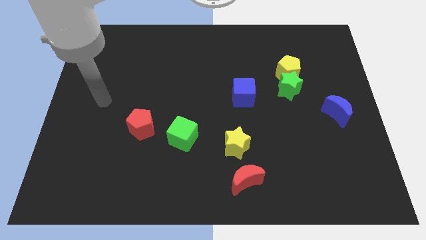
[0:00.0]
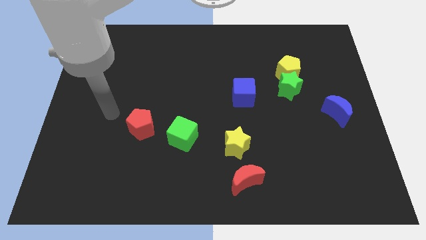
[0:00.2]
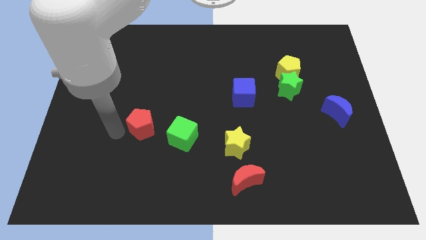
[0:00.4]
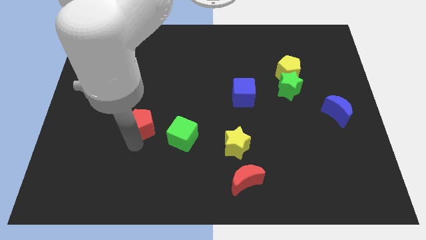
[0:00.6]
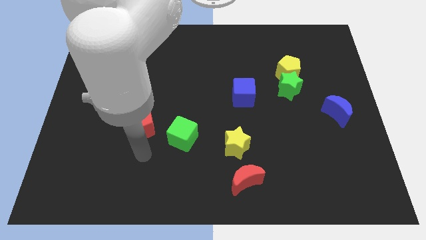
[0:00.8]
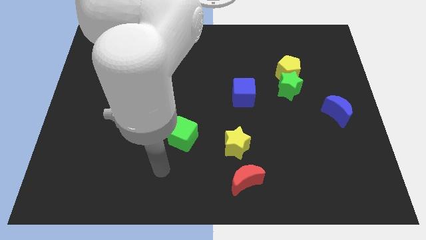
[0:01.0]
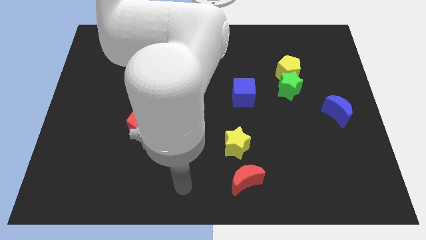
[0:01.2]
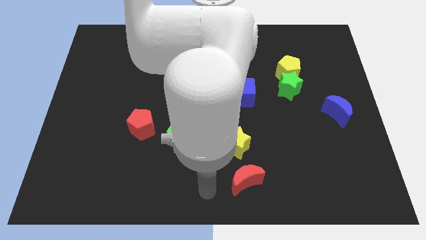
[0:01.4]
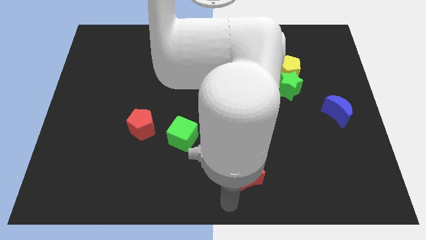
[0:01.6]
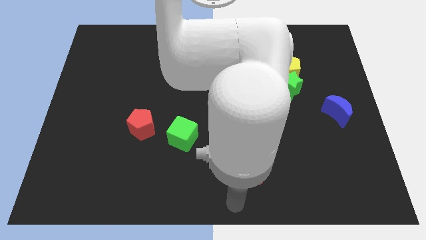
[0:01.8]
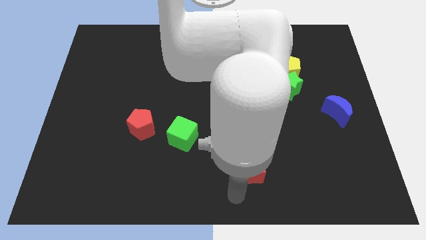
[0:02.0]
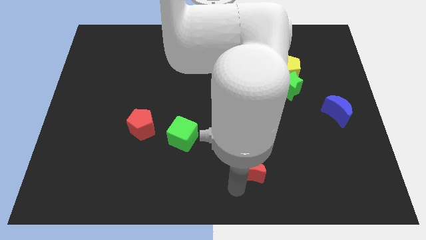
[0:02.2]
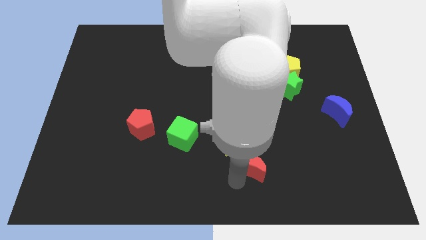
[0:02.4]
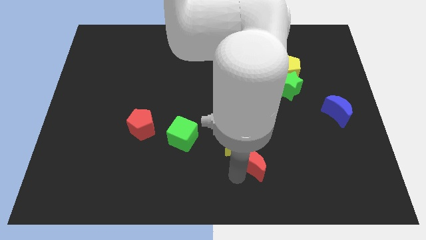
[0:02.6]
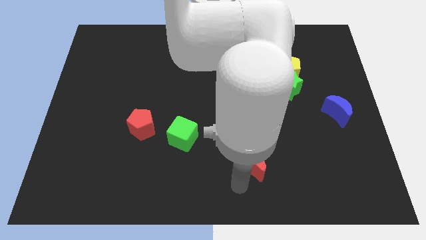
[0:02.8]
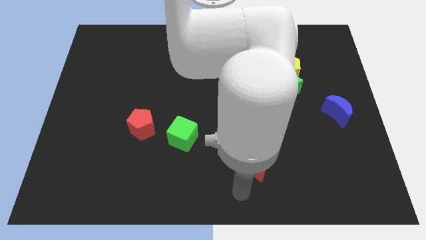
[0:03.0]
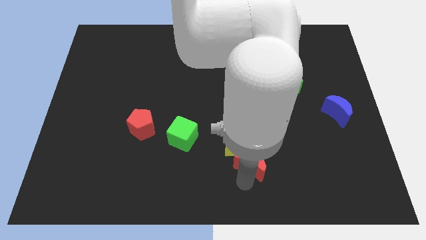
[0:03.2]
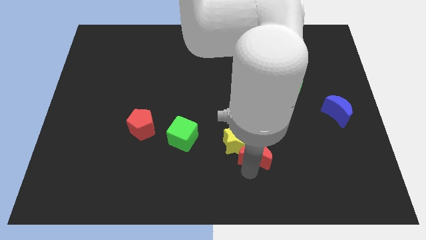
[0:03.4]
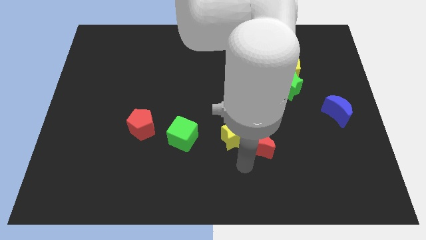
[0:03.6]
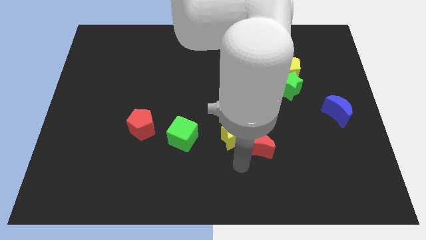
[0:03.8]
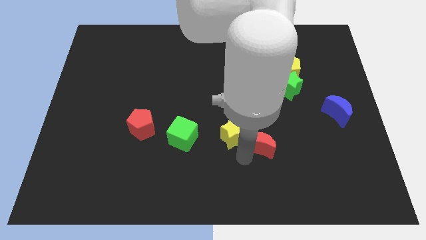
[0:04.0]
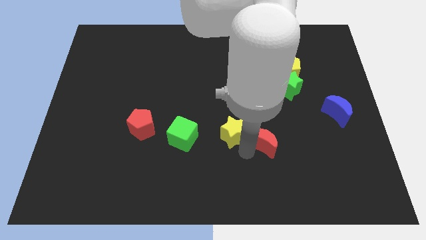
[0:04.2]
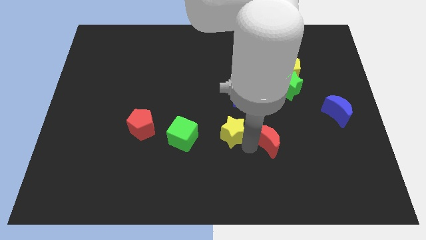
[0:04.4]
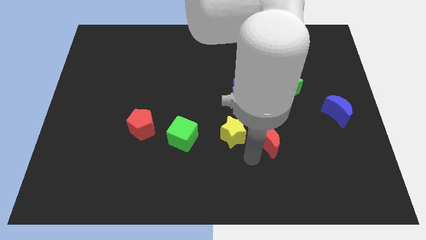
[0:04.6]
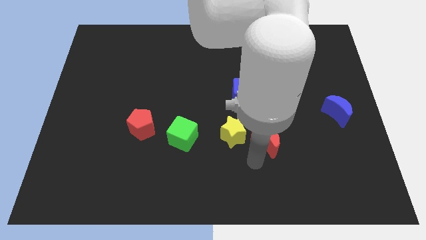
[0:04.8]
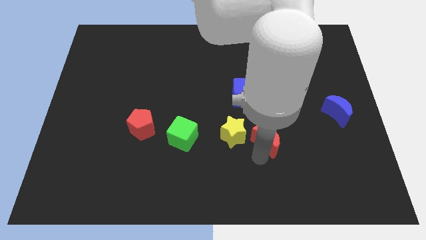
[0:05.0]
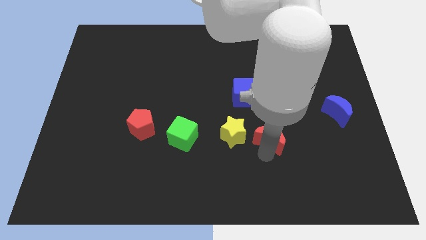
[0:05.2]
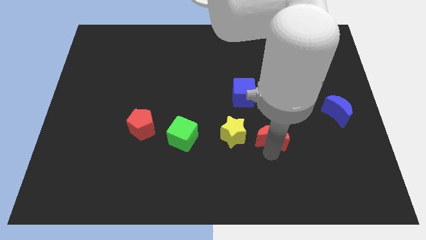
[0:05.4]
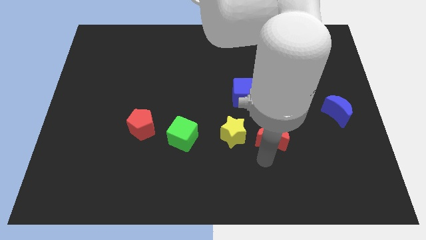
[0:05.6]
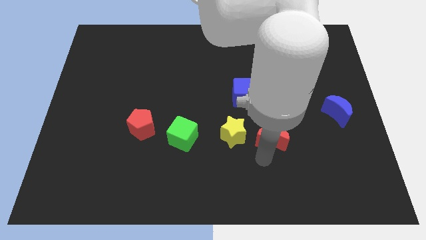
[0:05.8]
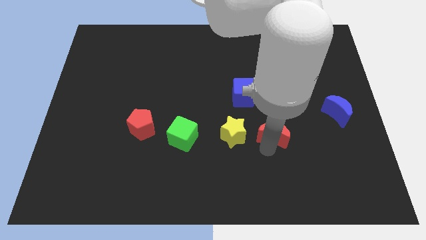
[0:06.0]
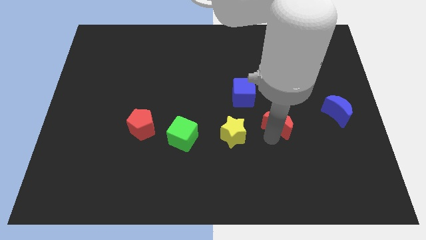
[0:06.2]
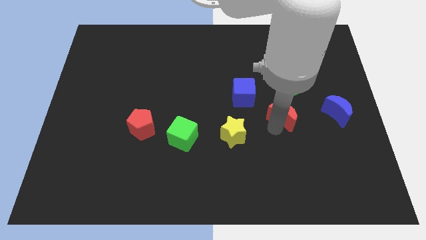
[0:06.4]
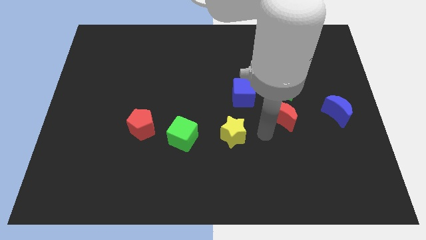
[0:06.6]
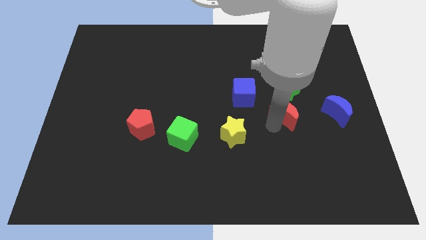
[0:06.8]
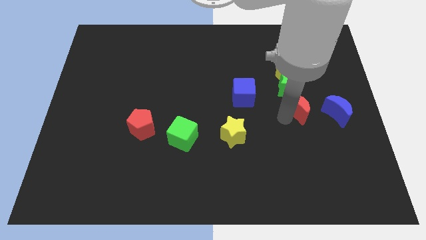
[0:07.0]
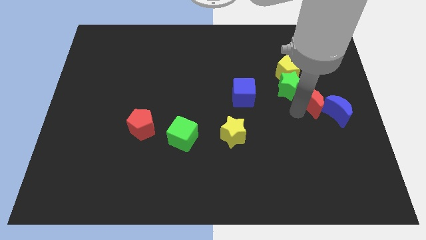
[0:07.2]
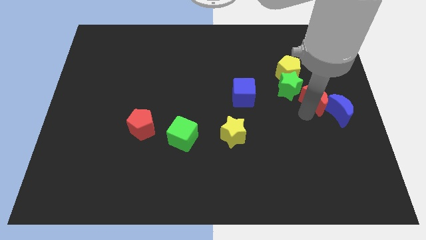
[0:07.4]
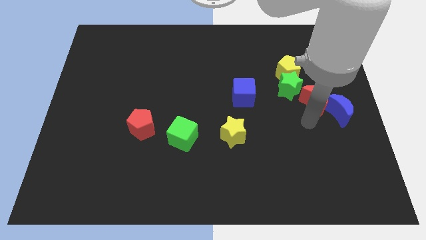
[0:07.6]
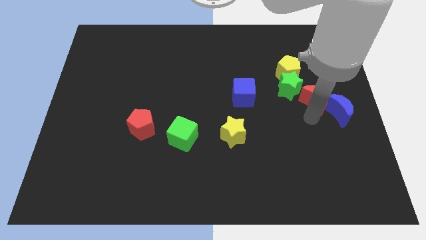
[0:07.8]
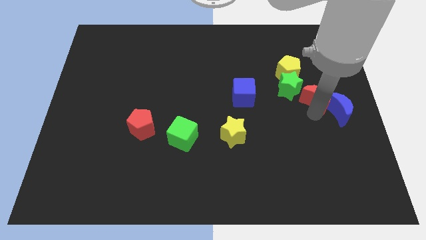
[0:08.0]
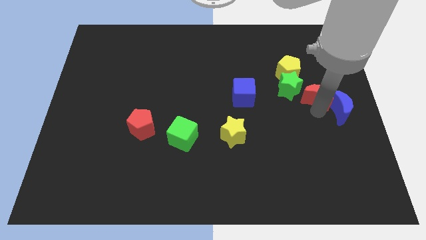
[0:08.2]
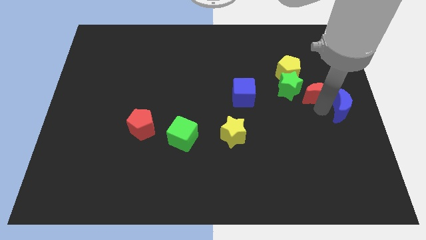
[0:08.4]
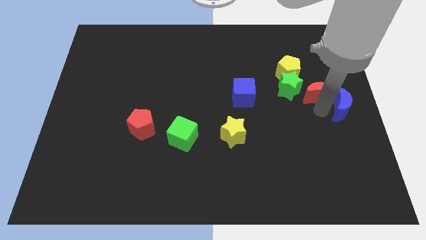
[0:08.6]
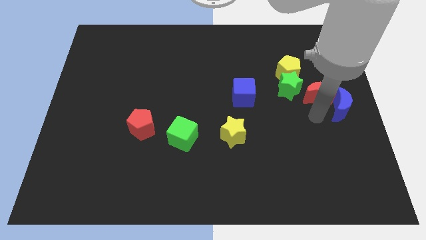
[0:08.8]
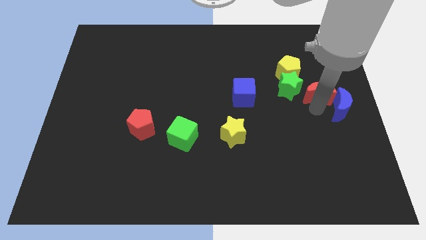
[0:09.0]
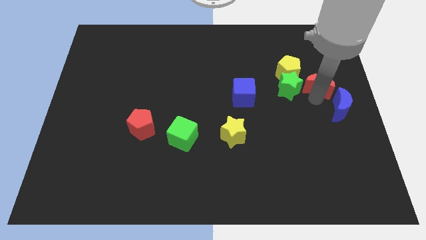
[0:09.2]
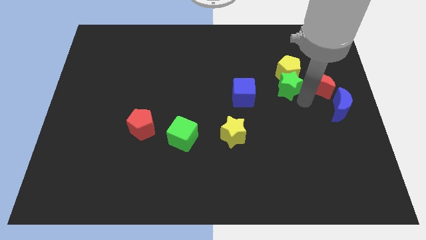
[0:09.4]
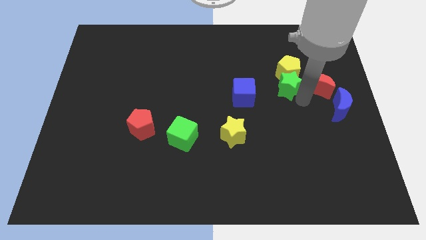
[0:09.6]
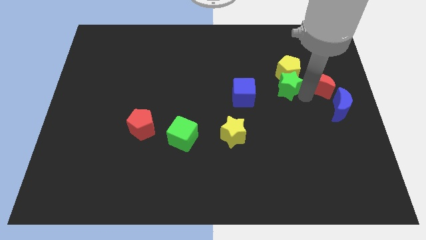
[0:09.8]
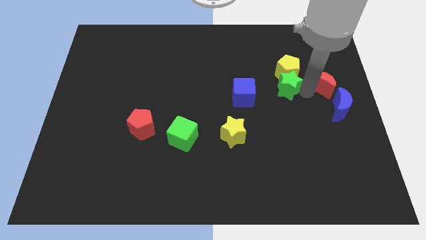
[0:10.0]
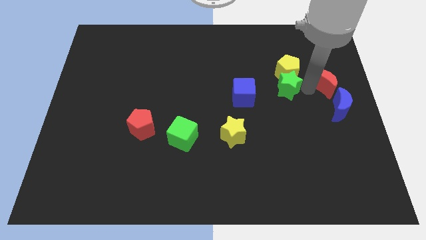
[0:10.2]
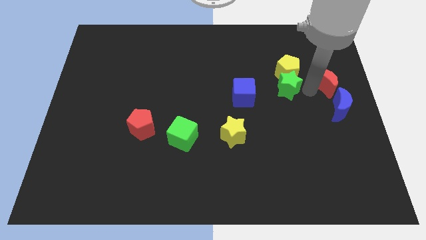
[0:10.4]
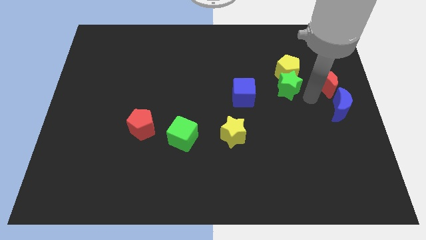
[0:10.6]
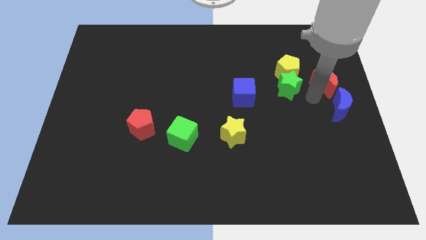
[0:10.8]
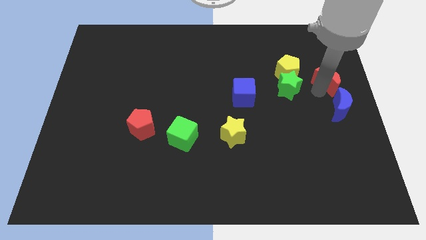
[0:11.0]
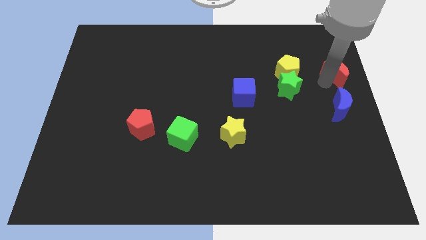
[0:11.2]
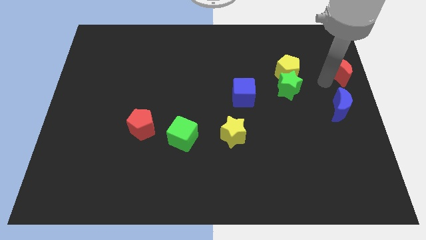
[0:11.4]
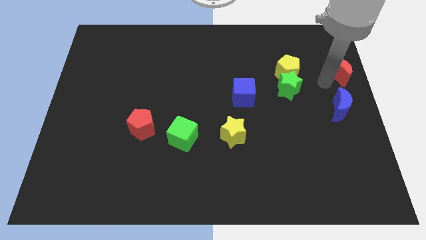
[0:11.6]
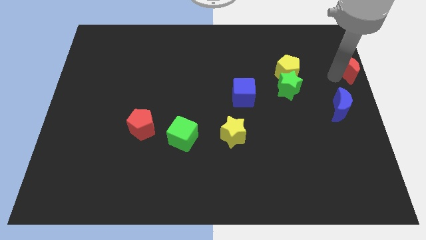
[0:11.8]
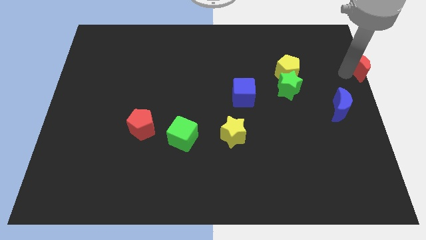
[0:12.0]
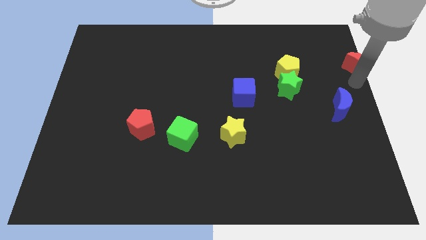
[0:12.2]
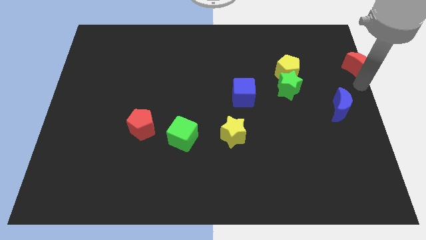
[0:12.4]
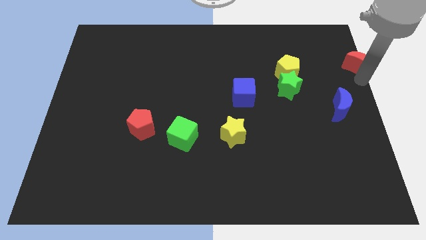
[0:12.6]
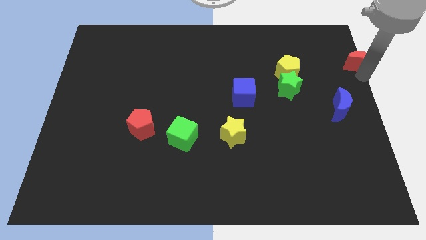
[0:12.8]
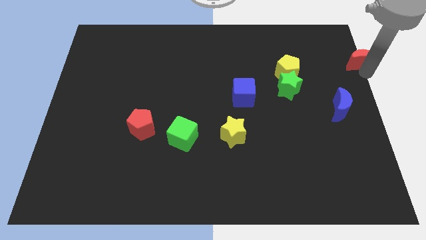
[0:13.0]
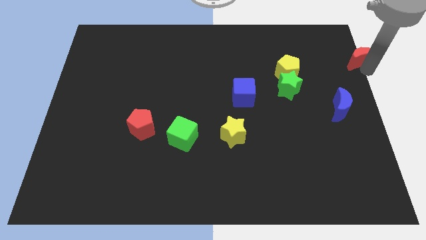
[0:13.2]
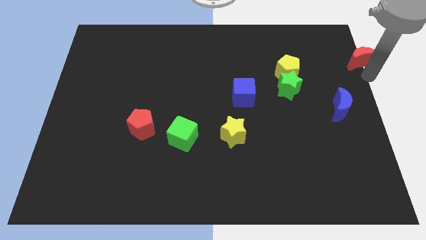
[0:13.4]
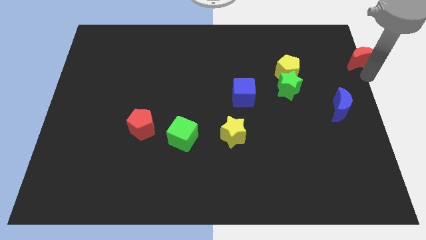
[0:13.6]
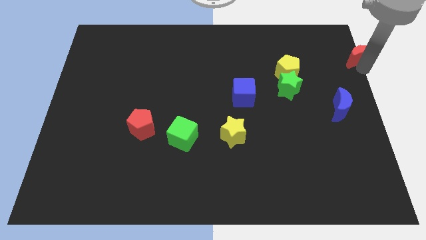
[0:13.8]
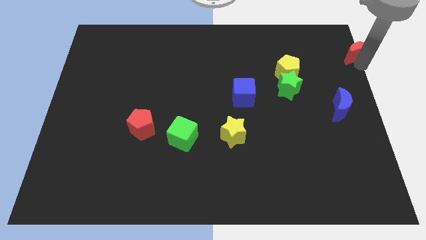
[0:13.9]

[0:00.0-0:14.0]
put the red moon to the top right of the board

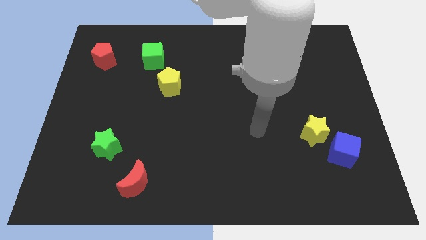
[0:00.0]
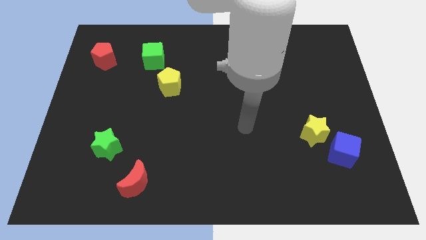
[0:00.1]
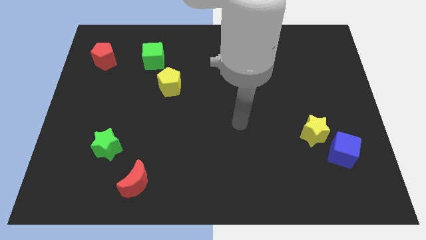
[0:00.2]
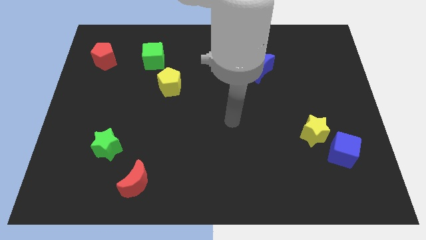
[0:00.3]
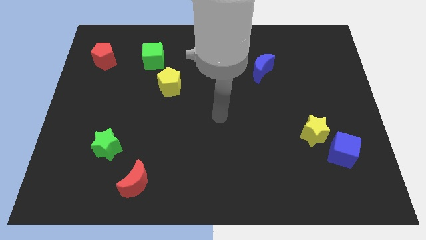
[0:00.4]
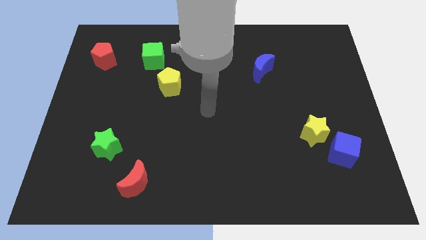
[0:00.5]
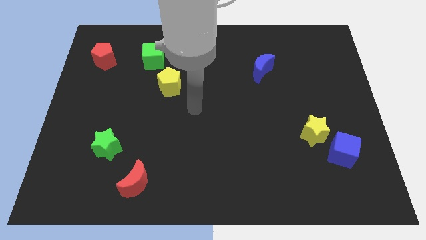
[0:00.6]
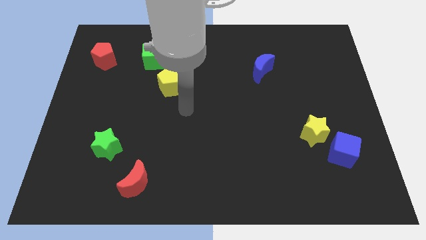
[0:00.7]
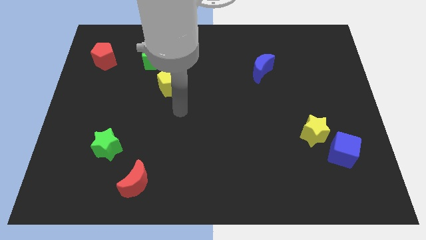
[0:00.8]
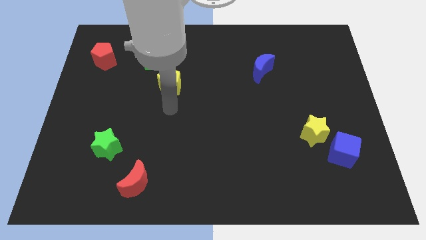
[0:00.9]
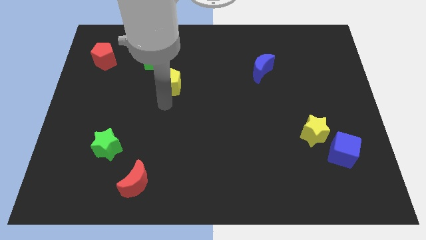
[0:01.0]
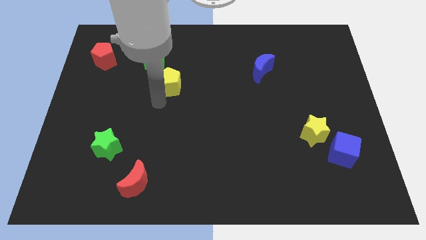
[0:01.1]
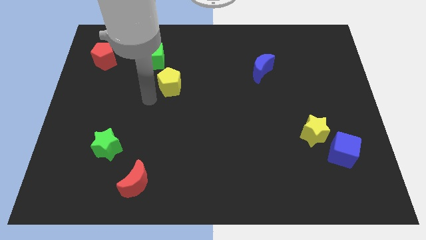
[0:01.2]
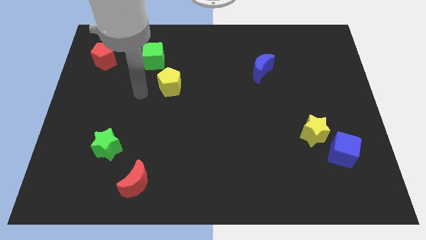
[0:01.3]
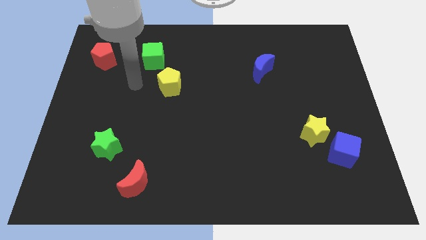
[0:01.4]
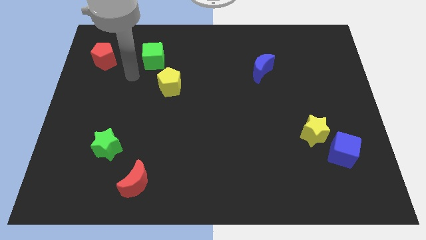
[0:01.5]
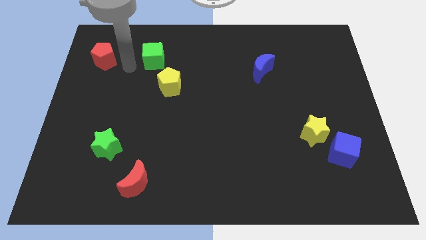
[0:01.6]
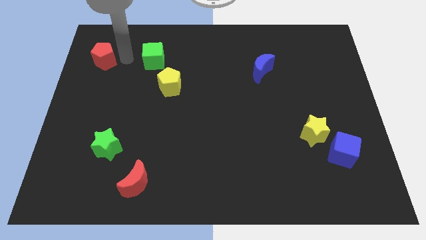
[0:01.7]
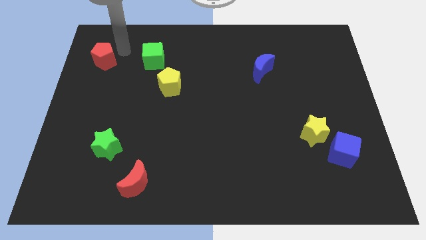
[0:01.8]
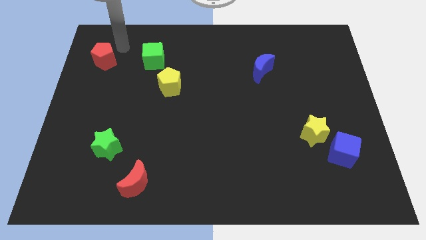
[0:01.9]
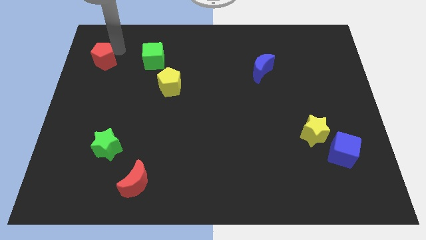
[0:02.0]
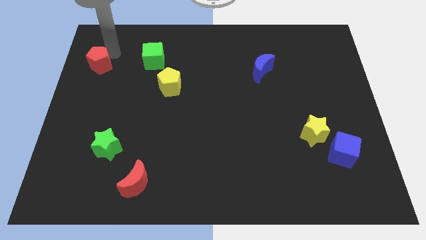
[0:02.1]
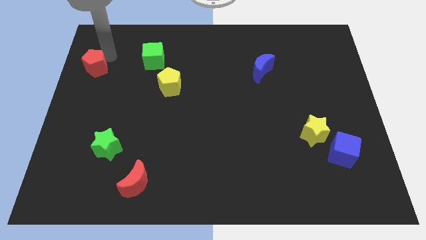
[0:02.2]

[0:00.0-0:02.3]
put the red pentagon to the center left
